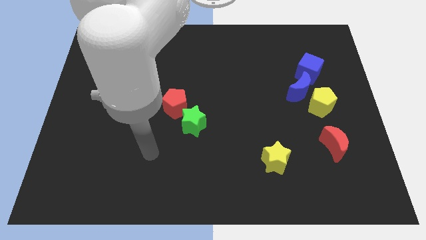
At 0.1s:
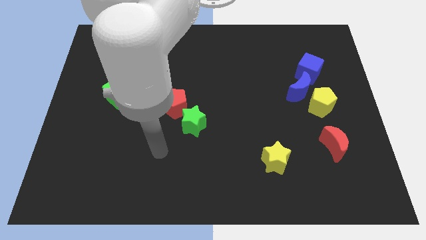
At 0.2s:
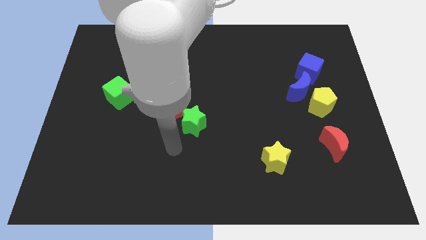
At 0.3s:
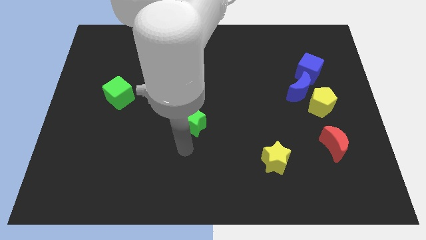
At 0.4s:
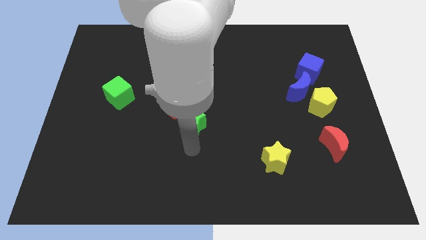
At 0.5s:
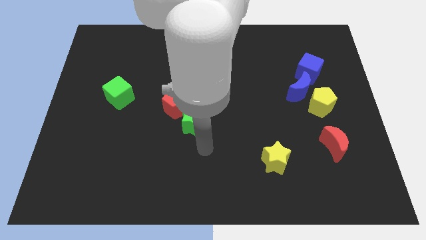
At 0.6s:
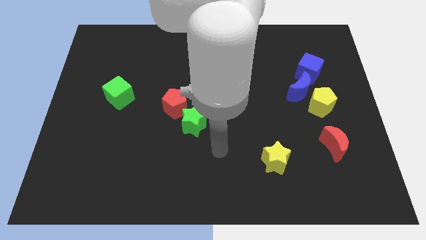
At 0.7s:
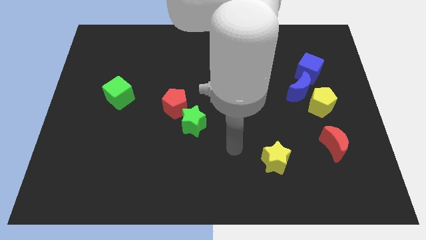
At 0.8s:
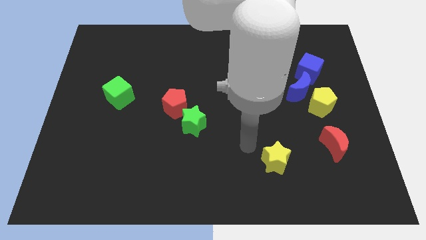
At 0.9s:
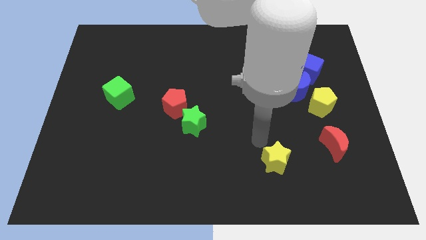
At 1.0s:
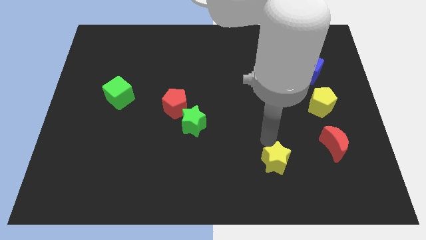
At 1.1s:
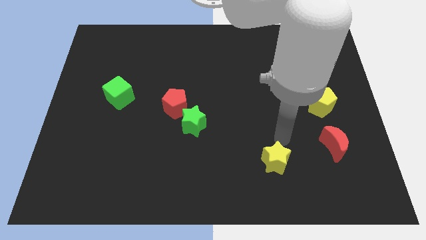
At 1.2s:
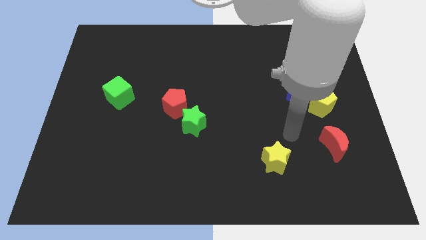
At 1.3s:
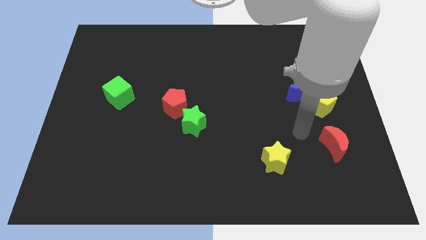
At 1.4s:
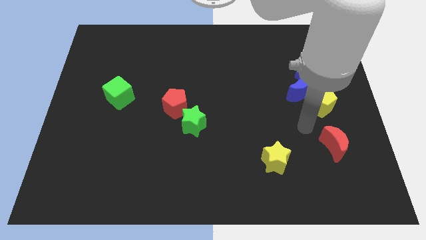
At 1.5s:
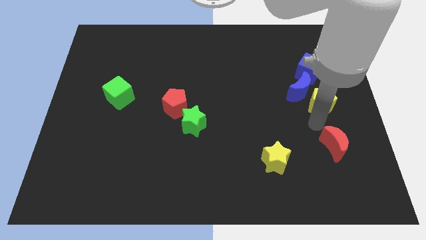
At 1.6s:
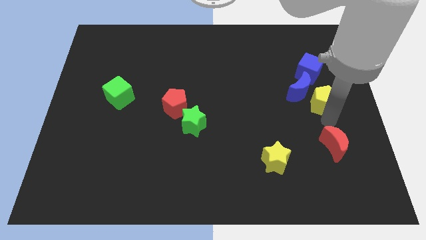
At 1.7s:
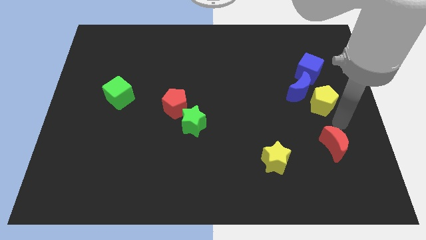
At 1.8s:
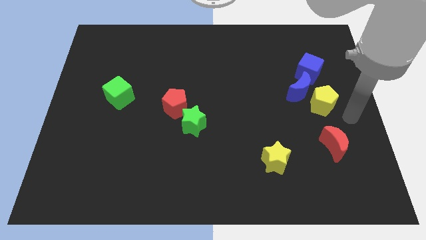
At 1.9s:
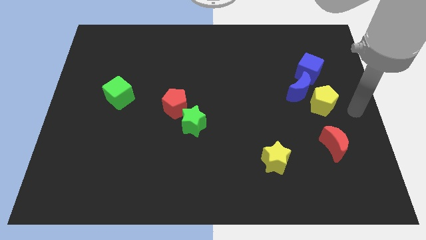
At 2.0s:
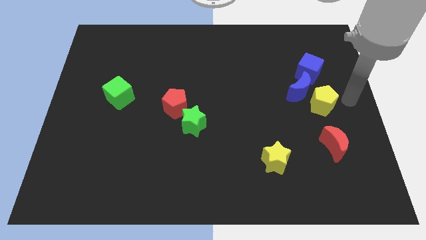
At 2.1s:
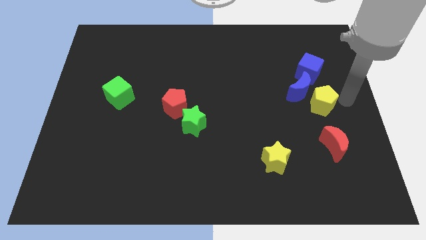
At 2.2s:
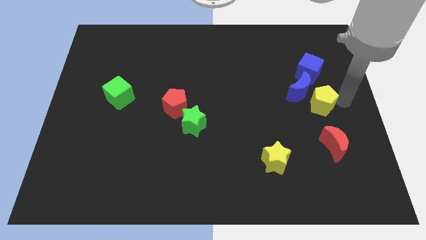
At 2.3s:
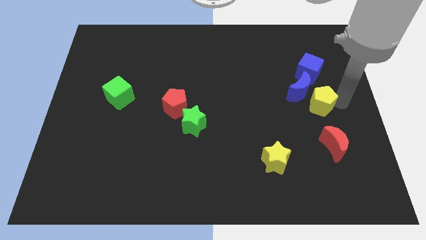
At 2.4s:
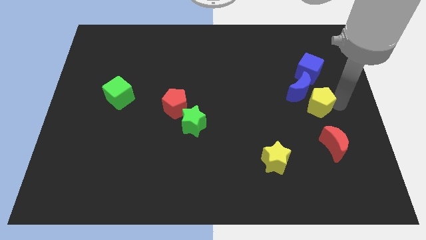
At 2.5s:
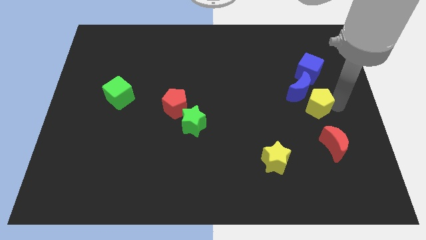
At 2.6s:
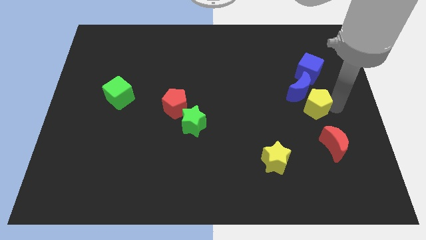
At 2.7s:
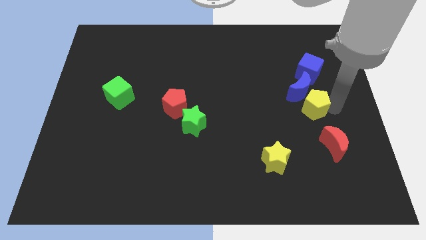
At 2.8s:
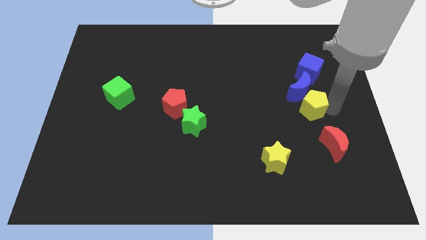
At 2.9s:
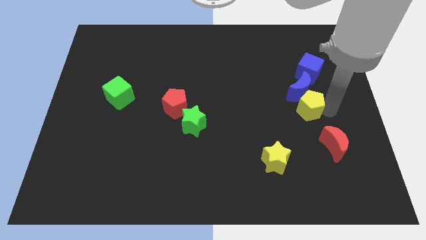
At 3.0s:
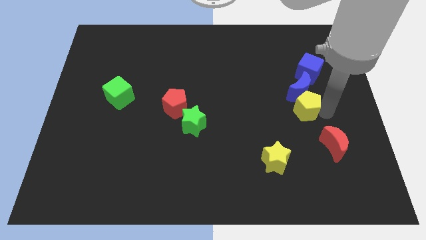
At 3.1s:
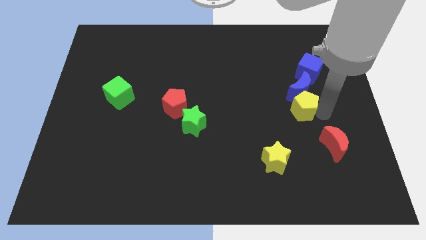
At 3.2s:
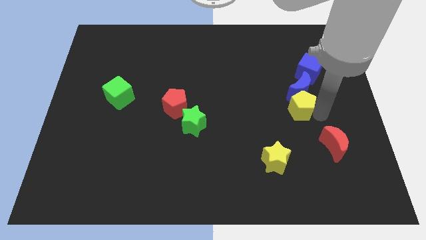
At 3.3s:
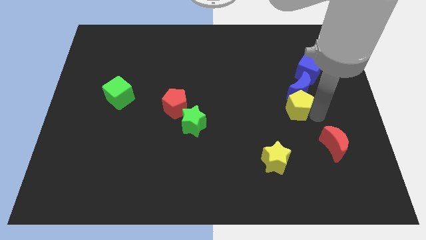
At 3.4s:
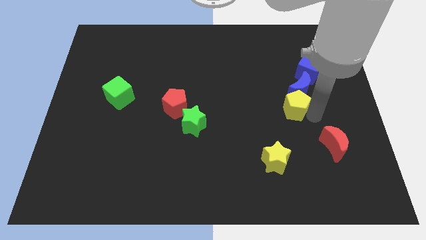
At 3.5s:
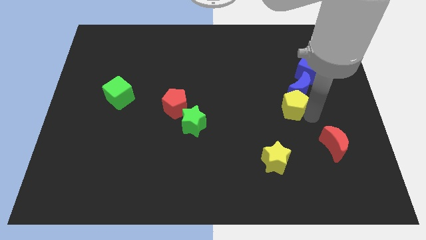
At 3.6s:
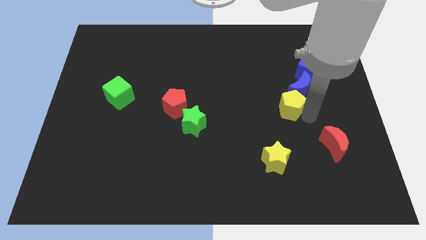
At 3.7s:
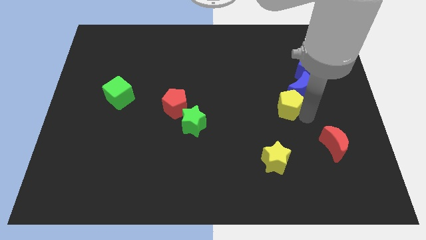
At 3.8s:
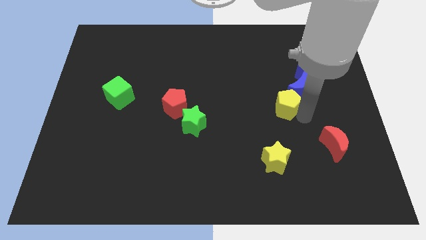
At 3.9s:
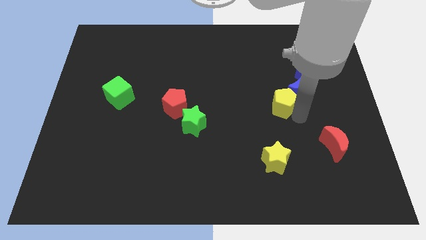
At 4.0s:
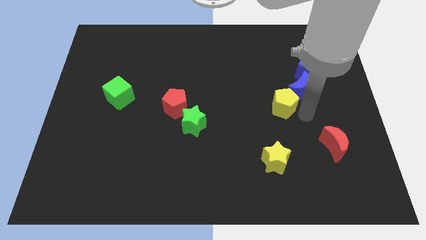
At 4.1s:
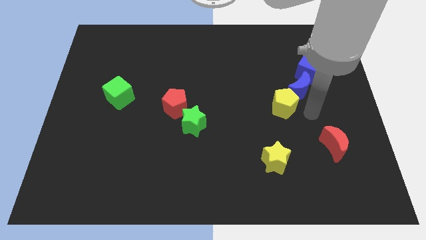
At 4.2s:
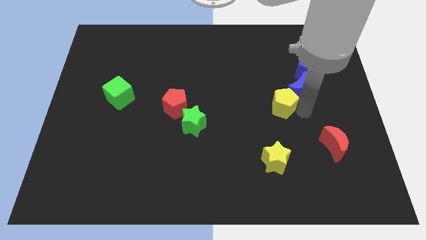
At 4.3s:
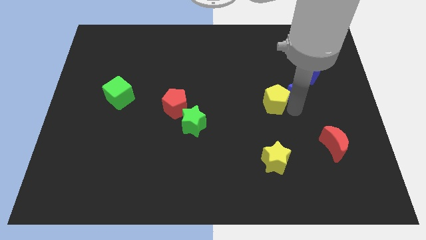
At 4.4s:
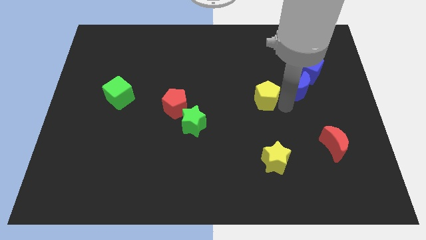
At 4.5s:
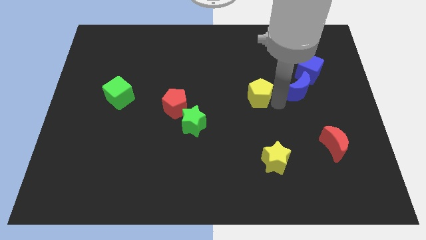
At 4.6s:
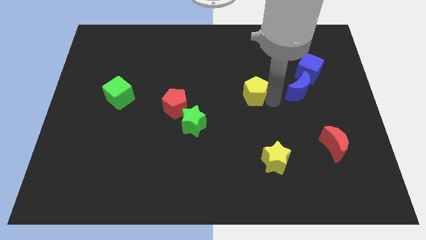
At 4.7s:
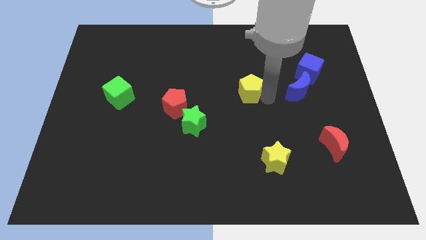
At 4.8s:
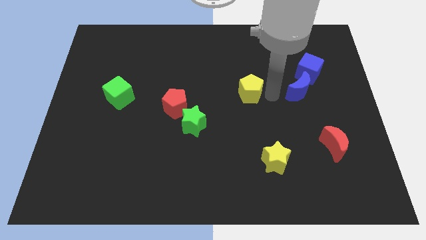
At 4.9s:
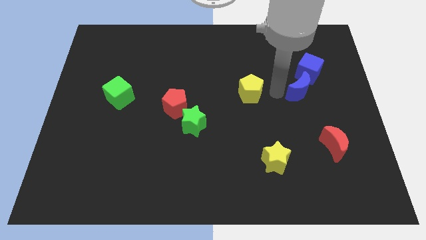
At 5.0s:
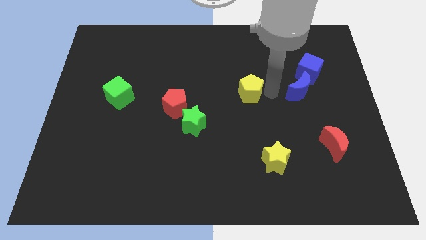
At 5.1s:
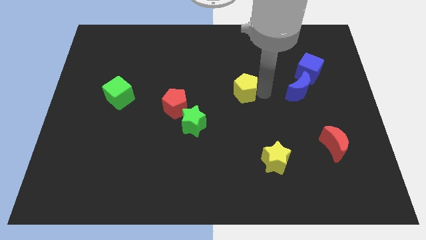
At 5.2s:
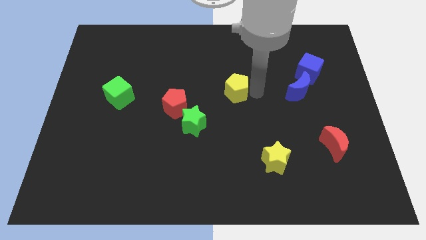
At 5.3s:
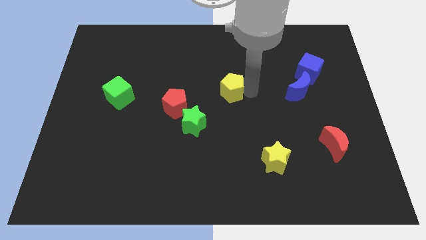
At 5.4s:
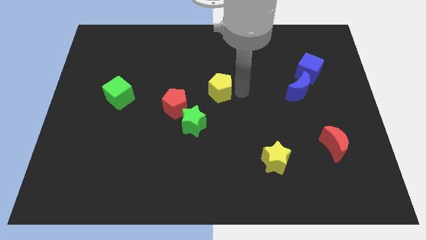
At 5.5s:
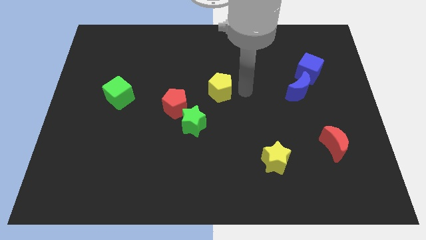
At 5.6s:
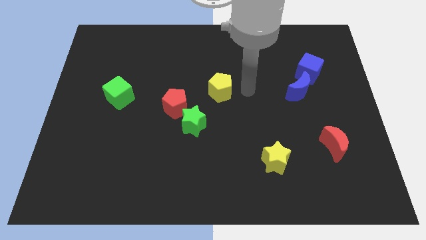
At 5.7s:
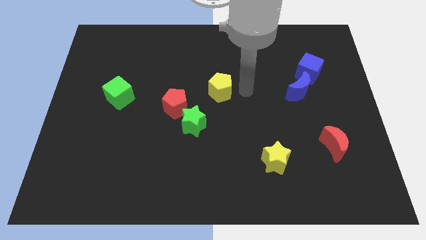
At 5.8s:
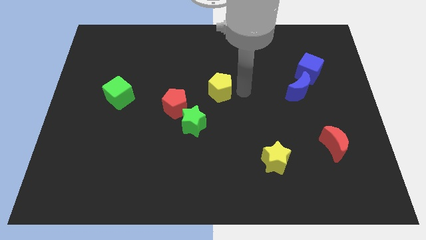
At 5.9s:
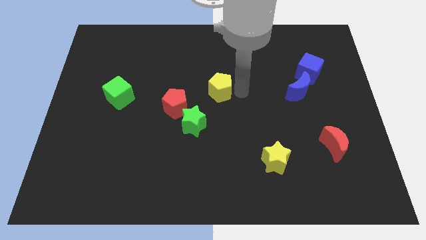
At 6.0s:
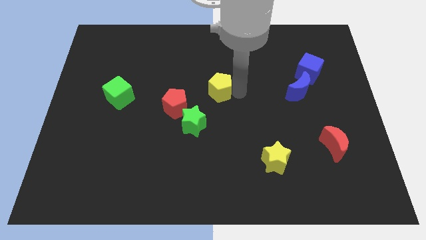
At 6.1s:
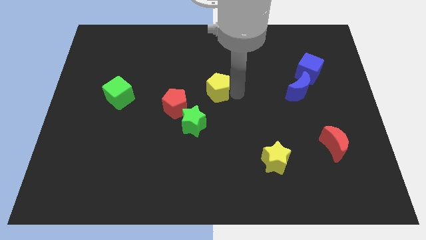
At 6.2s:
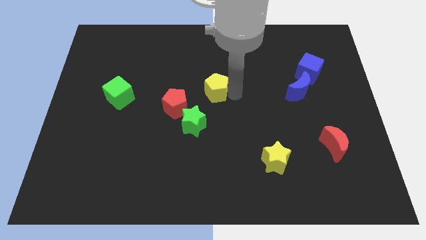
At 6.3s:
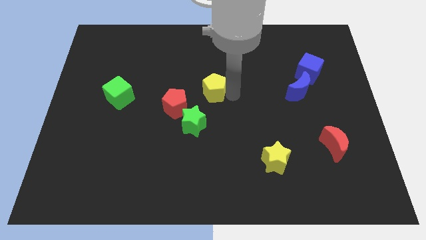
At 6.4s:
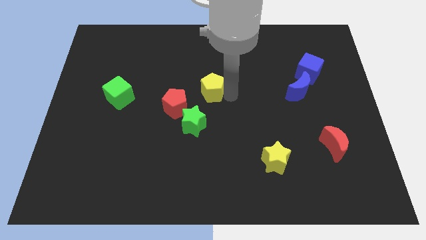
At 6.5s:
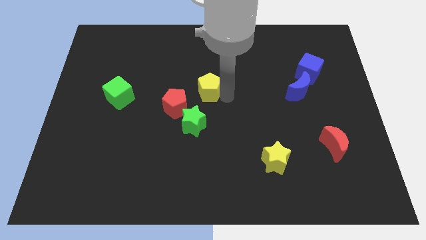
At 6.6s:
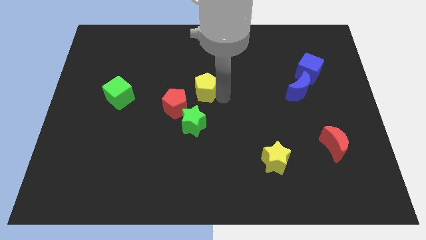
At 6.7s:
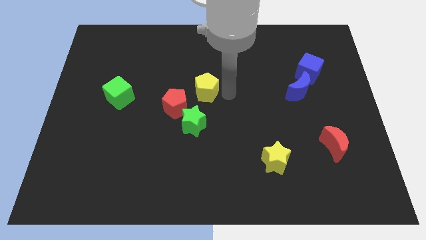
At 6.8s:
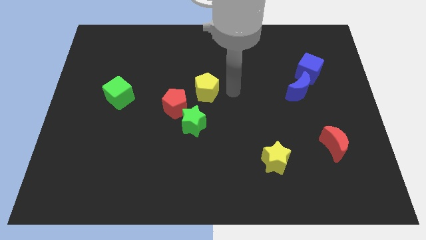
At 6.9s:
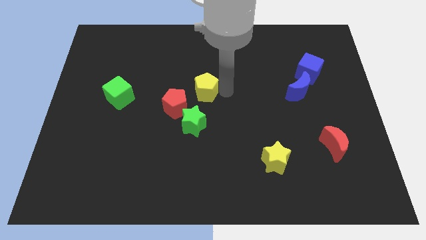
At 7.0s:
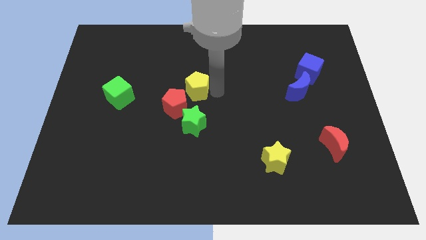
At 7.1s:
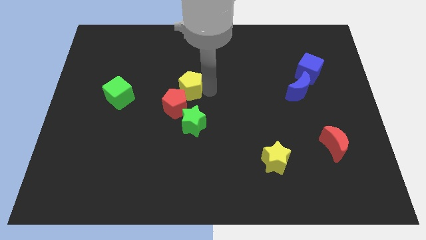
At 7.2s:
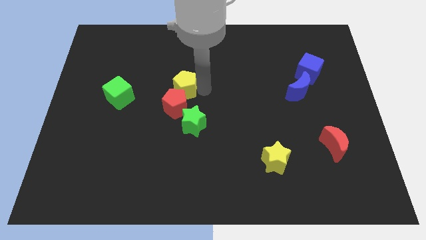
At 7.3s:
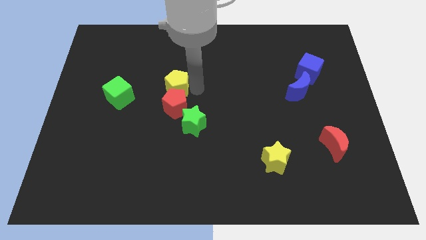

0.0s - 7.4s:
move the yellow pentagon to the top left of the red pentagon
